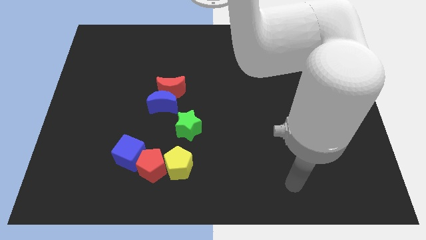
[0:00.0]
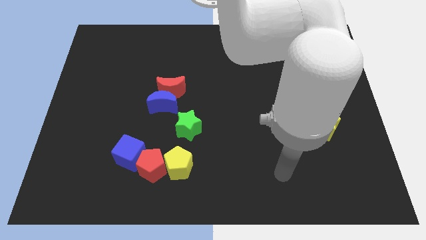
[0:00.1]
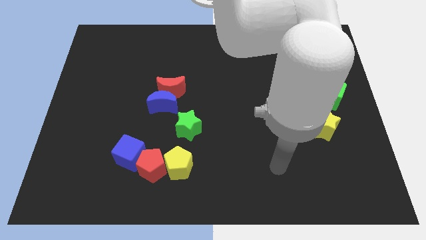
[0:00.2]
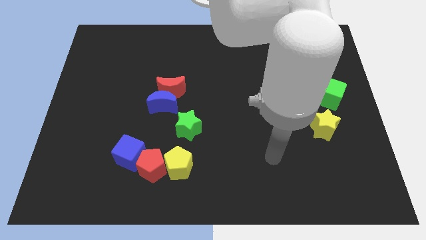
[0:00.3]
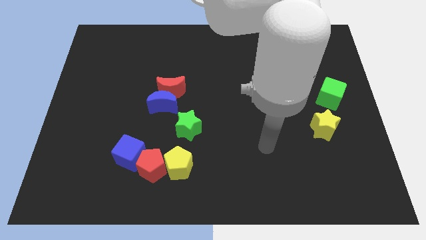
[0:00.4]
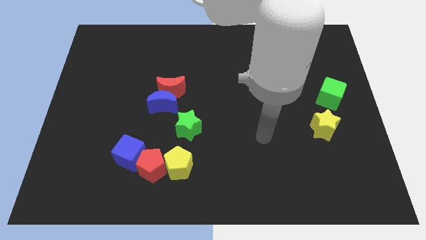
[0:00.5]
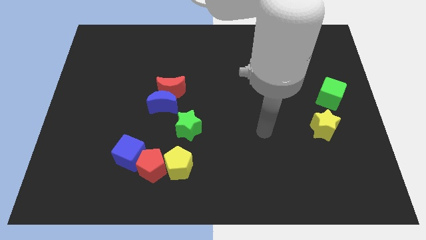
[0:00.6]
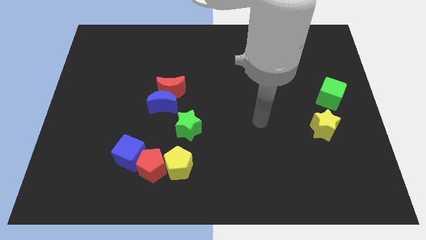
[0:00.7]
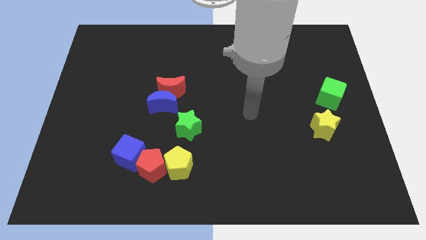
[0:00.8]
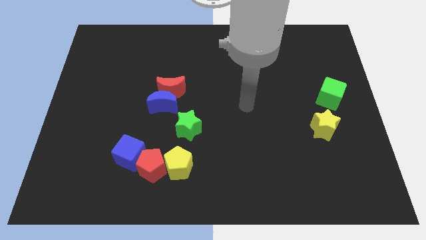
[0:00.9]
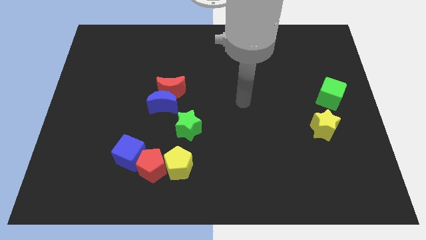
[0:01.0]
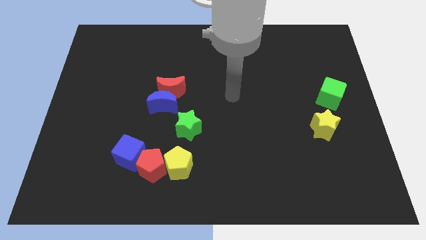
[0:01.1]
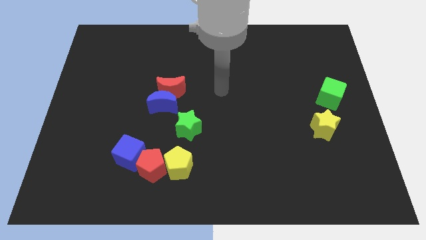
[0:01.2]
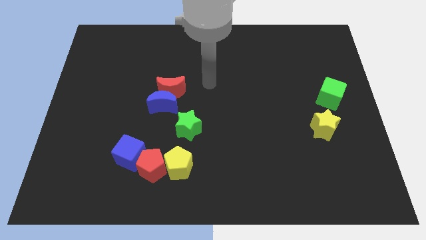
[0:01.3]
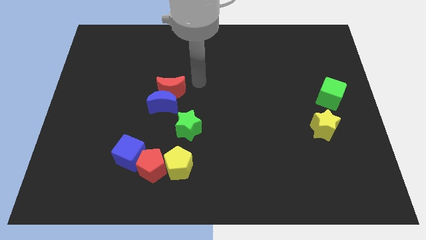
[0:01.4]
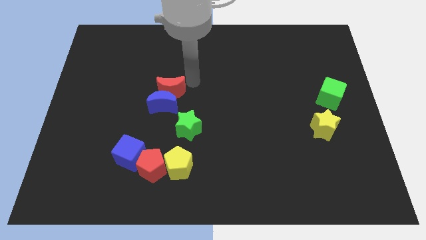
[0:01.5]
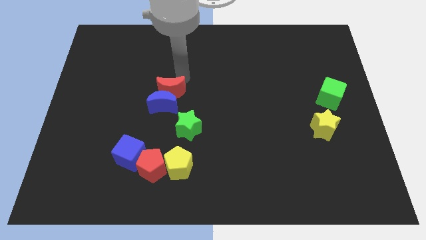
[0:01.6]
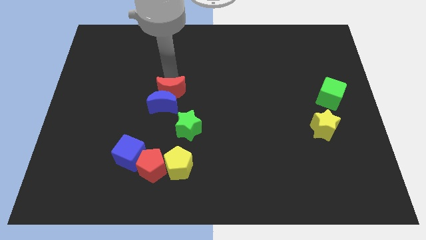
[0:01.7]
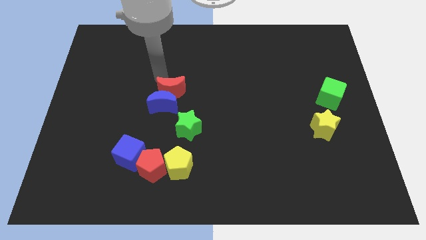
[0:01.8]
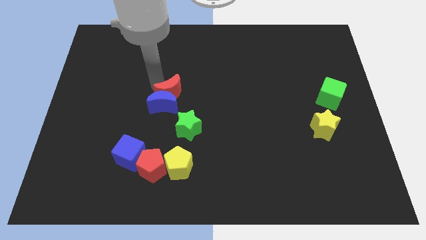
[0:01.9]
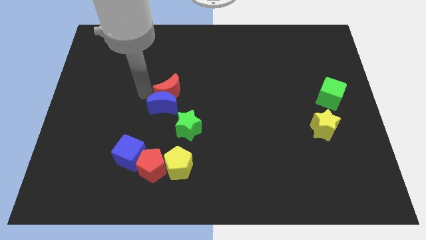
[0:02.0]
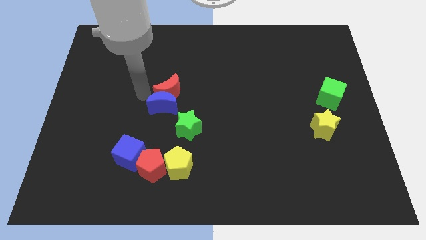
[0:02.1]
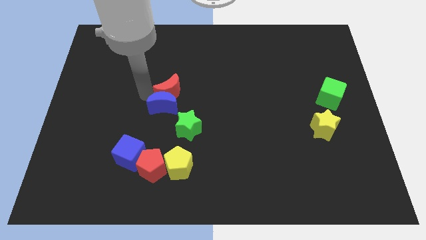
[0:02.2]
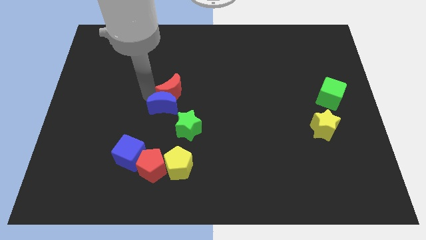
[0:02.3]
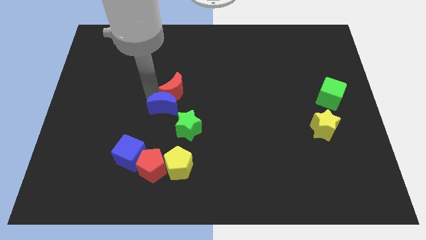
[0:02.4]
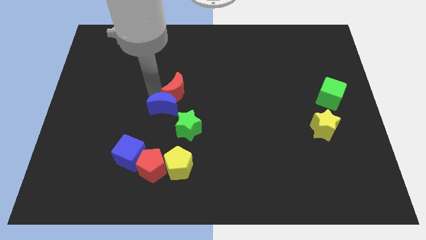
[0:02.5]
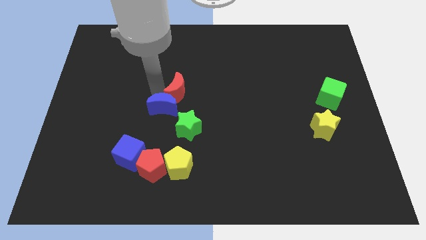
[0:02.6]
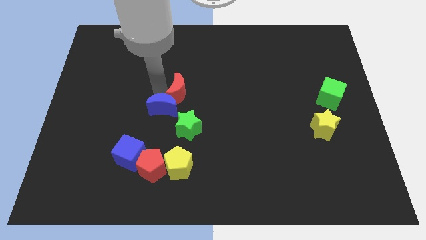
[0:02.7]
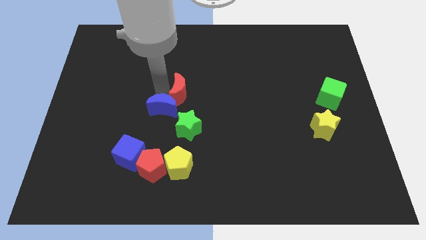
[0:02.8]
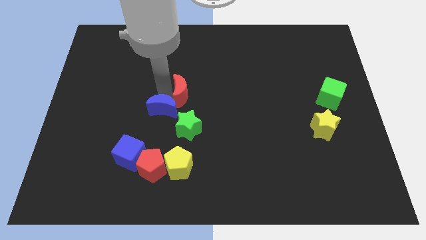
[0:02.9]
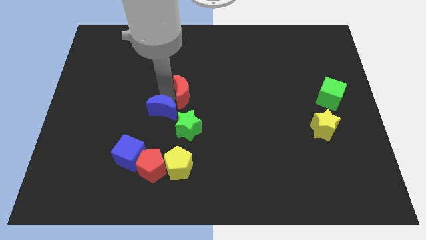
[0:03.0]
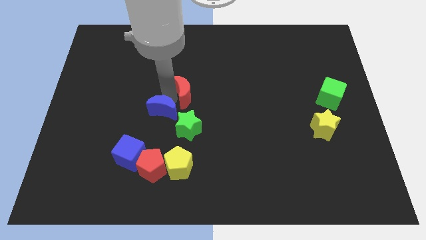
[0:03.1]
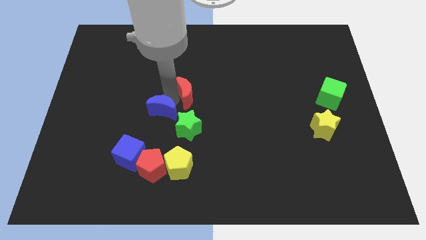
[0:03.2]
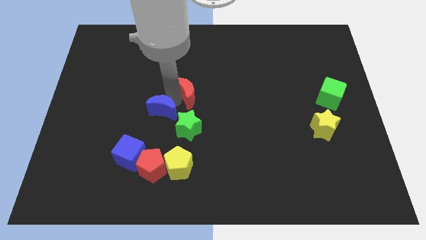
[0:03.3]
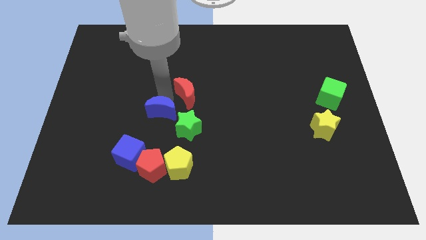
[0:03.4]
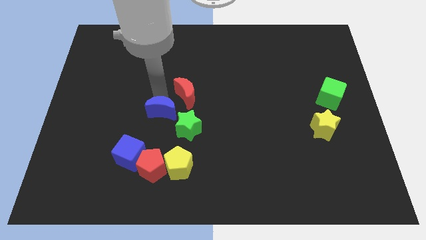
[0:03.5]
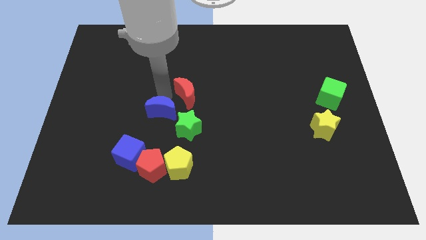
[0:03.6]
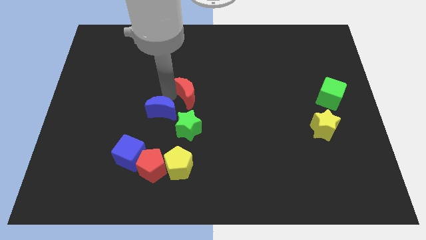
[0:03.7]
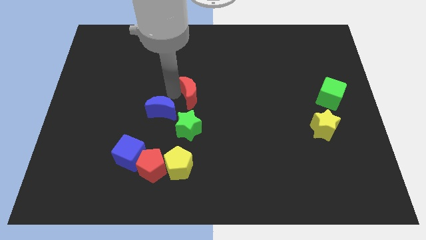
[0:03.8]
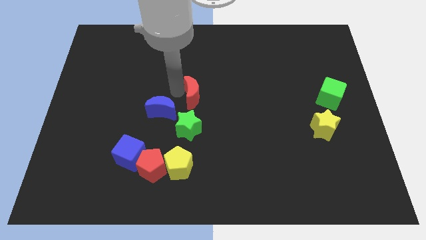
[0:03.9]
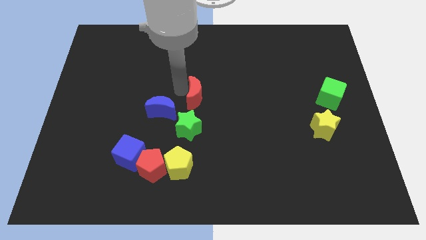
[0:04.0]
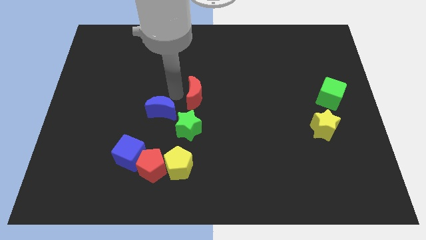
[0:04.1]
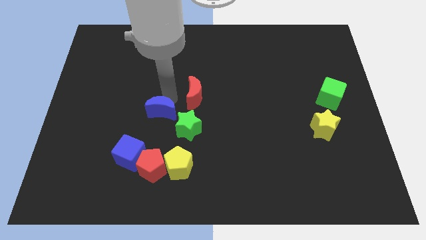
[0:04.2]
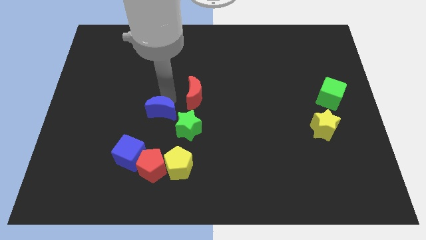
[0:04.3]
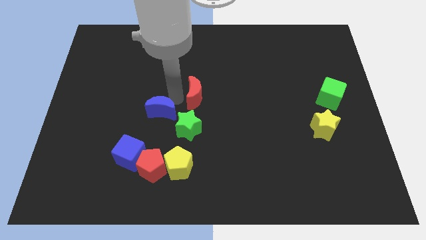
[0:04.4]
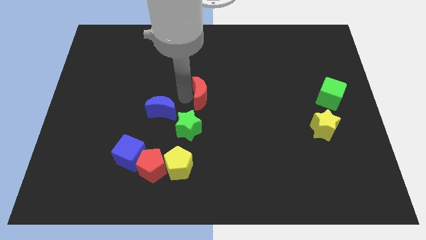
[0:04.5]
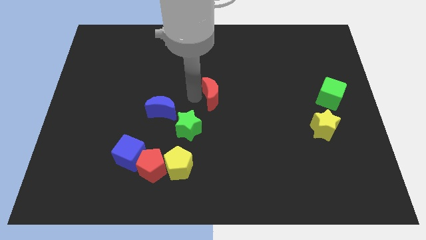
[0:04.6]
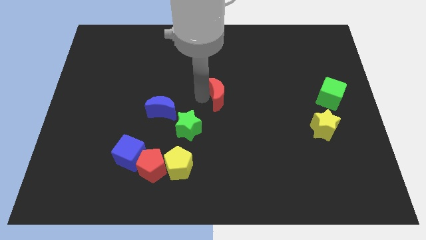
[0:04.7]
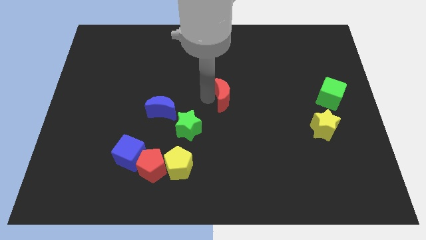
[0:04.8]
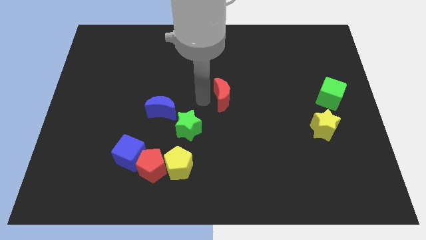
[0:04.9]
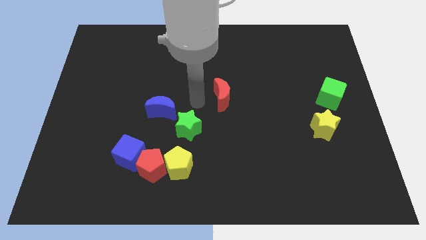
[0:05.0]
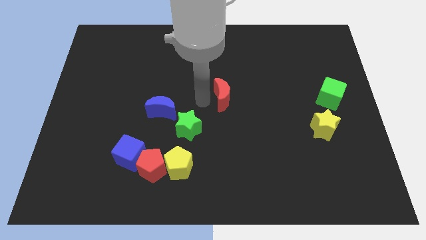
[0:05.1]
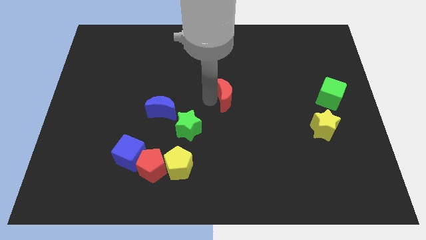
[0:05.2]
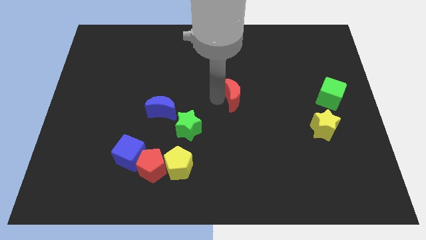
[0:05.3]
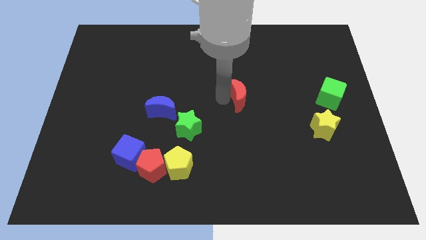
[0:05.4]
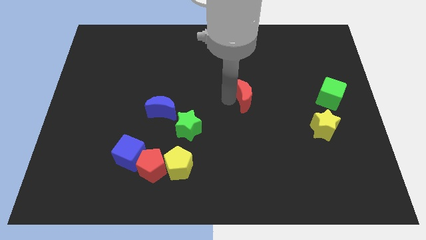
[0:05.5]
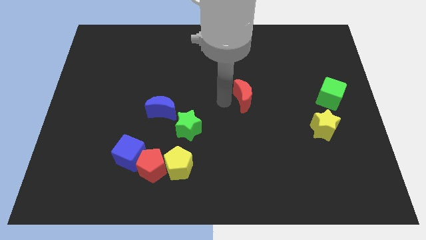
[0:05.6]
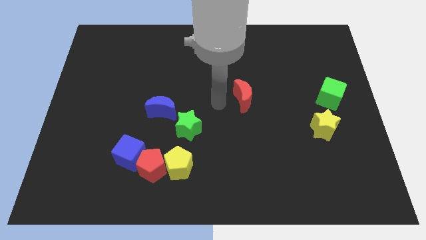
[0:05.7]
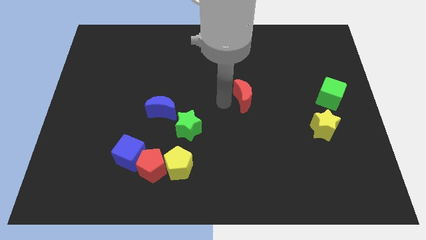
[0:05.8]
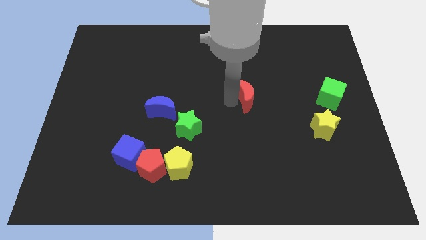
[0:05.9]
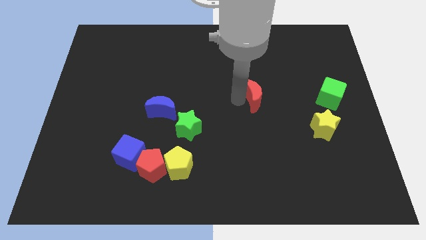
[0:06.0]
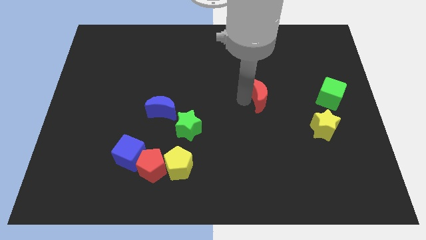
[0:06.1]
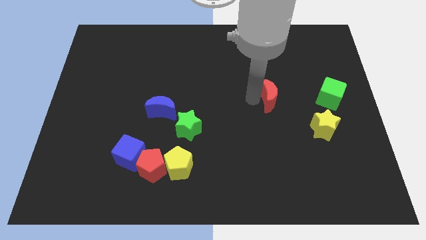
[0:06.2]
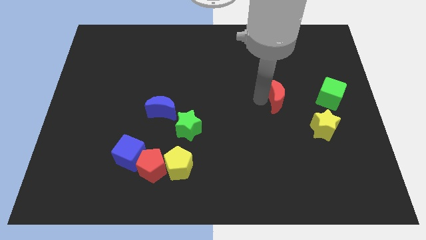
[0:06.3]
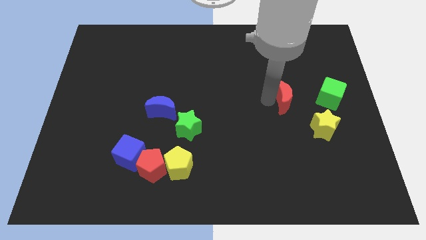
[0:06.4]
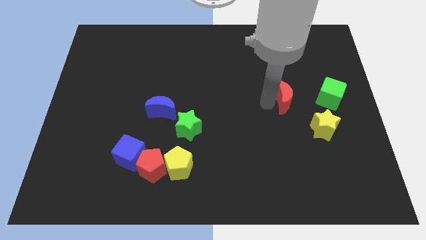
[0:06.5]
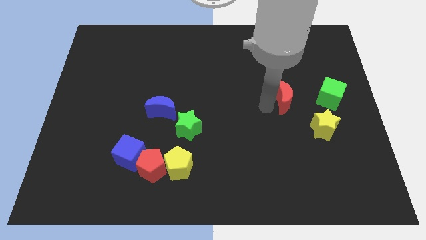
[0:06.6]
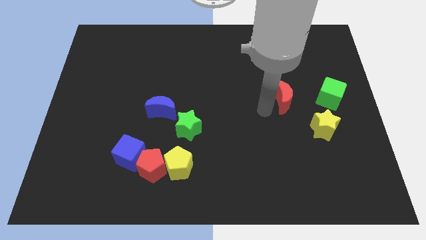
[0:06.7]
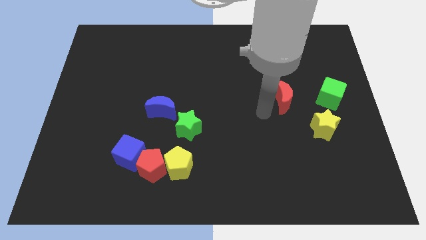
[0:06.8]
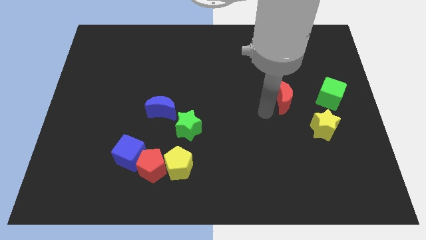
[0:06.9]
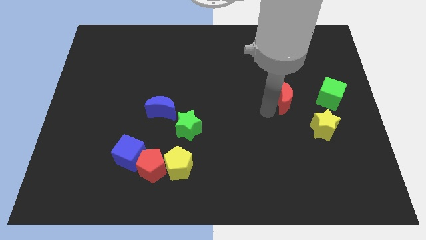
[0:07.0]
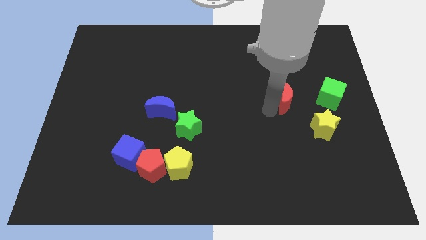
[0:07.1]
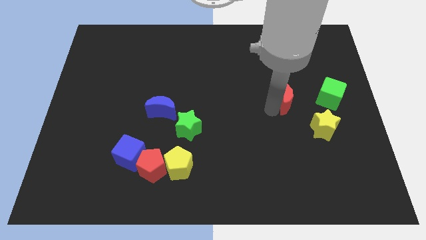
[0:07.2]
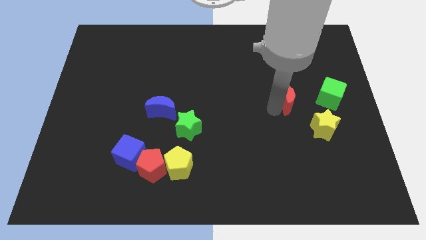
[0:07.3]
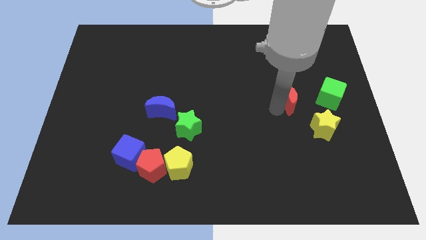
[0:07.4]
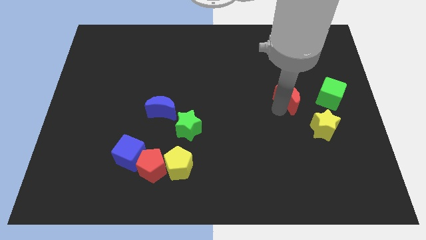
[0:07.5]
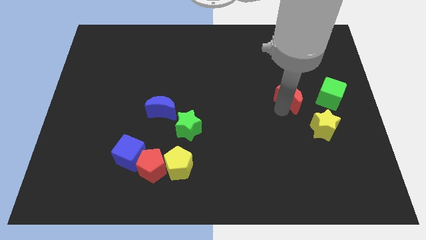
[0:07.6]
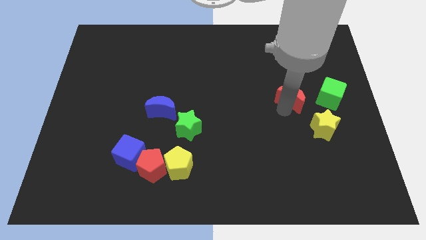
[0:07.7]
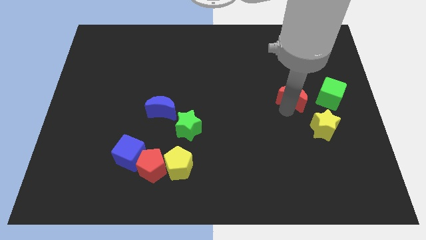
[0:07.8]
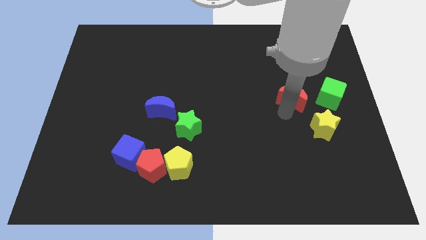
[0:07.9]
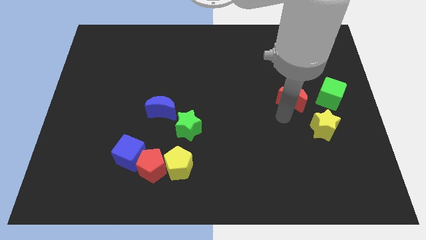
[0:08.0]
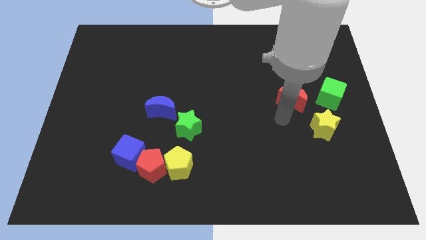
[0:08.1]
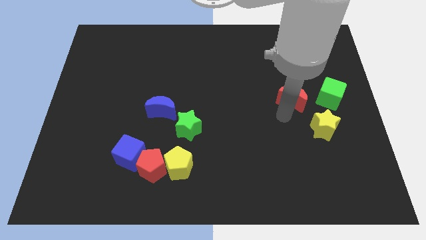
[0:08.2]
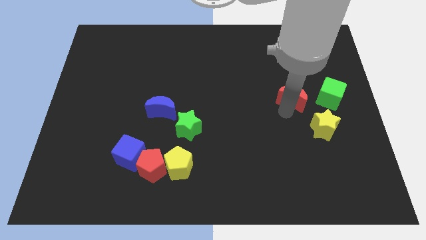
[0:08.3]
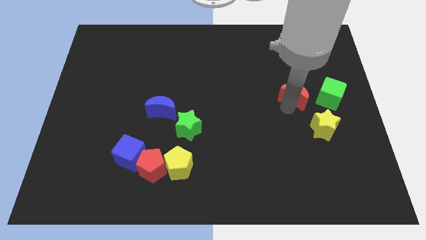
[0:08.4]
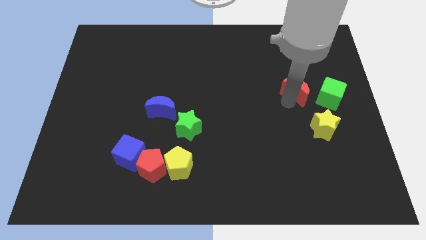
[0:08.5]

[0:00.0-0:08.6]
slide the red moon above the yellow star
